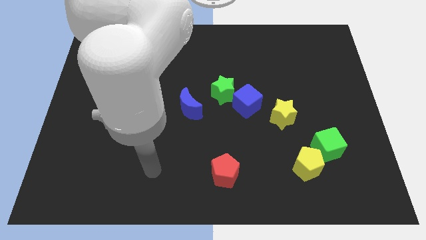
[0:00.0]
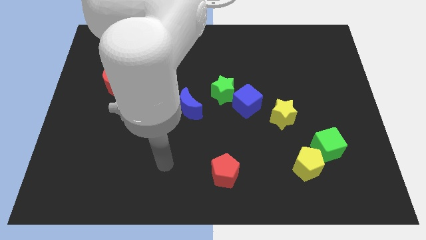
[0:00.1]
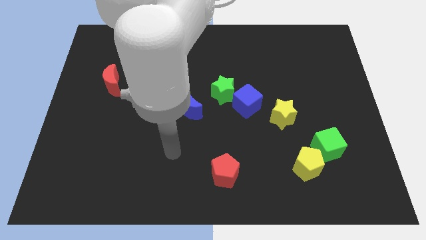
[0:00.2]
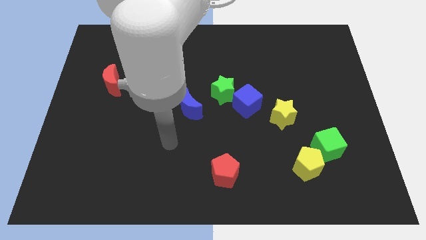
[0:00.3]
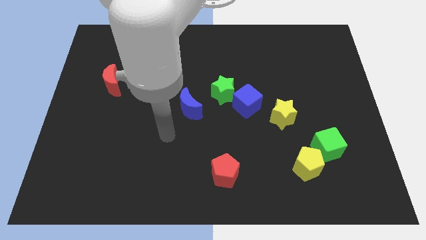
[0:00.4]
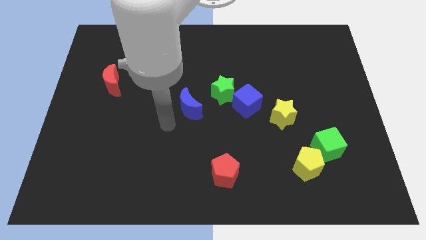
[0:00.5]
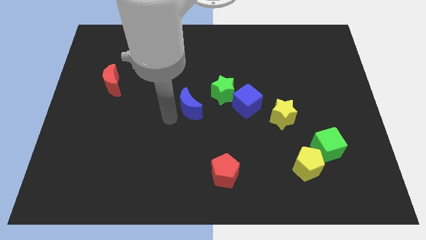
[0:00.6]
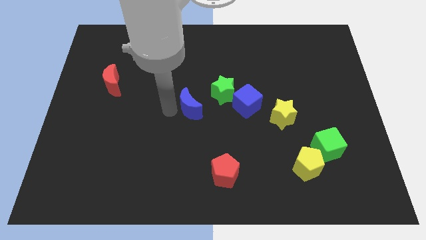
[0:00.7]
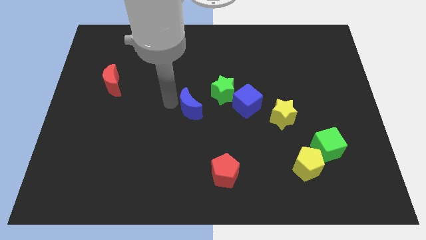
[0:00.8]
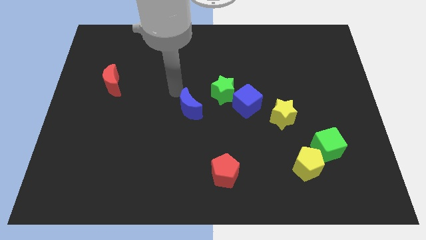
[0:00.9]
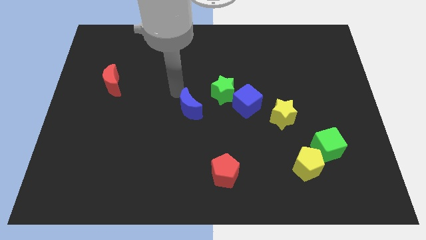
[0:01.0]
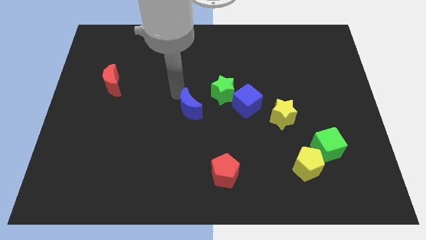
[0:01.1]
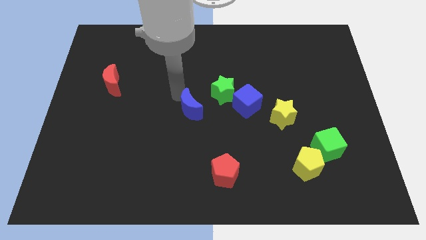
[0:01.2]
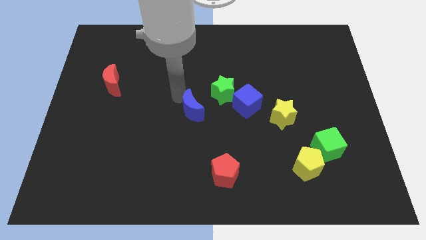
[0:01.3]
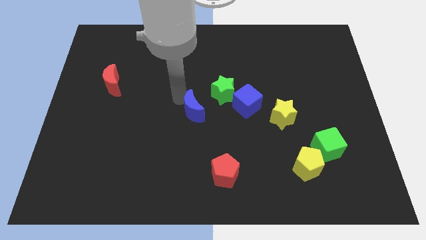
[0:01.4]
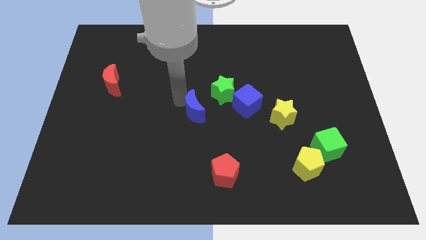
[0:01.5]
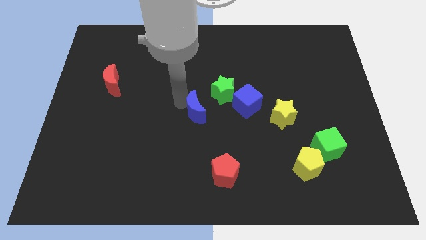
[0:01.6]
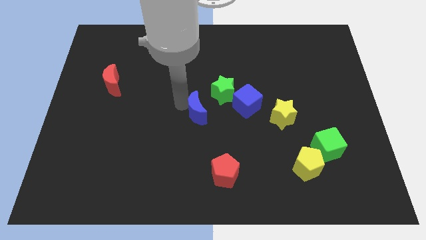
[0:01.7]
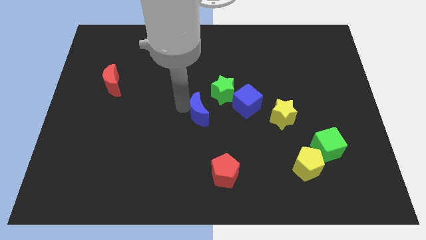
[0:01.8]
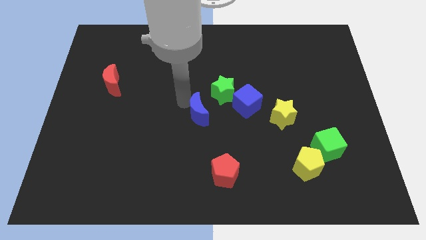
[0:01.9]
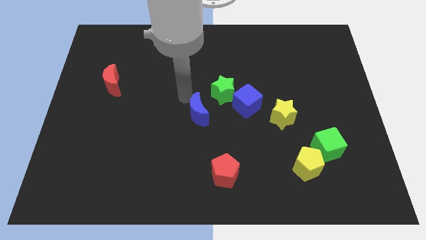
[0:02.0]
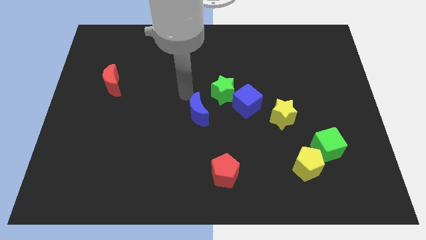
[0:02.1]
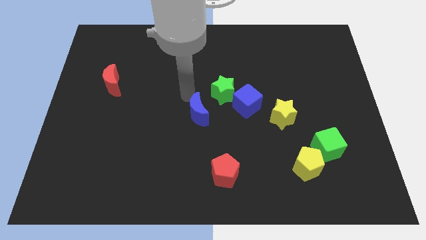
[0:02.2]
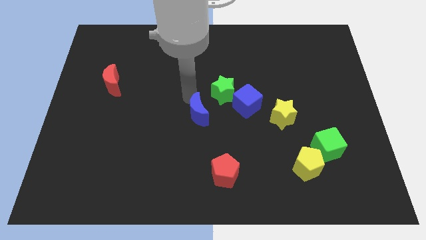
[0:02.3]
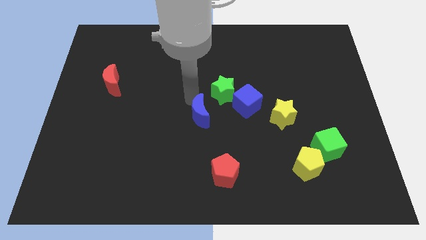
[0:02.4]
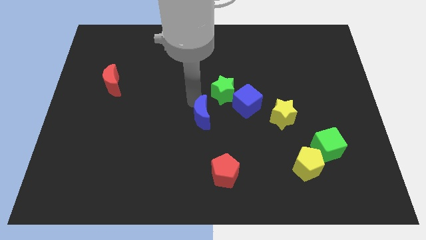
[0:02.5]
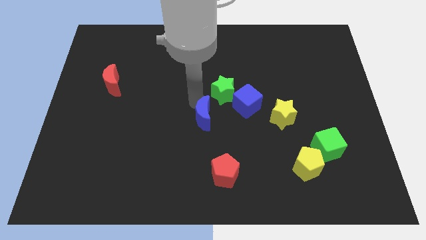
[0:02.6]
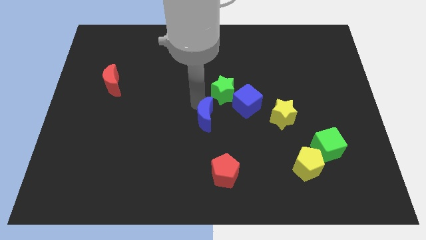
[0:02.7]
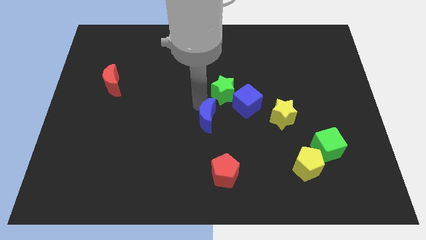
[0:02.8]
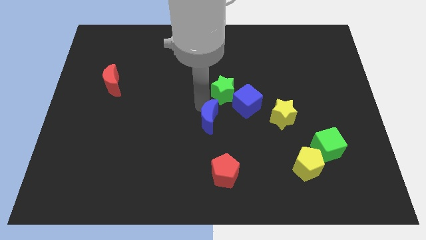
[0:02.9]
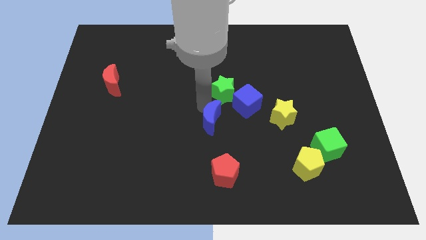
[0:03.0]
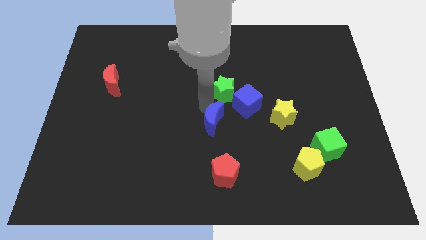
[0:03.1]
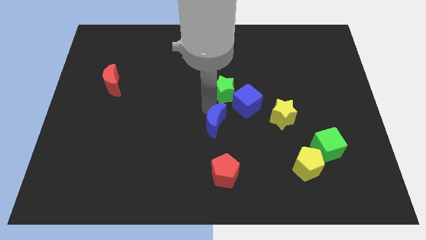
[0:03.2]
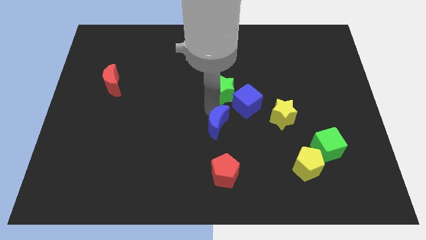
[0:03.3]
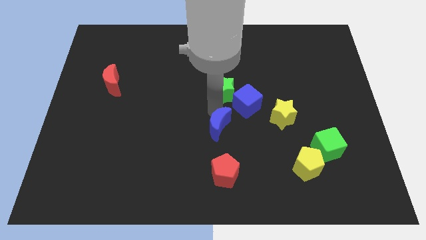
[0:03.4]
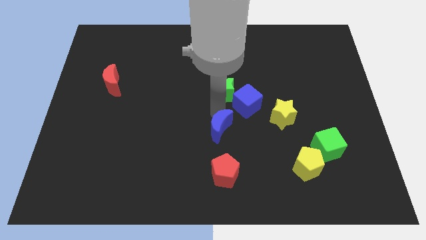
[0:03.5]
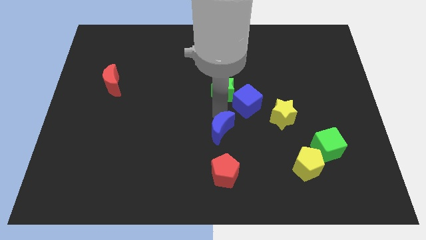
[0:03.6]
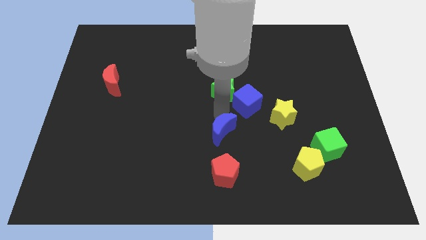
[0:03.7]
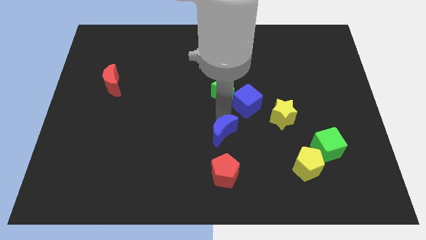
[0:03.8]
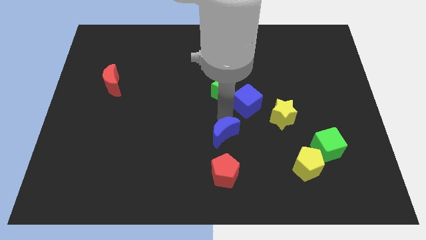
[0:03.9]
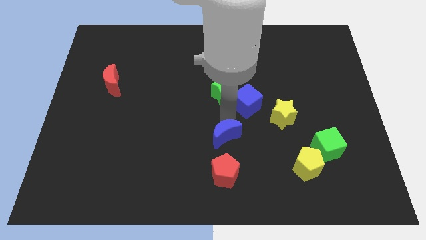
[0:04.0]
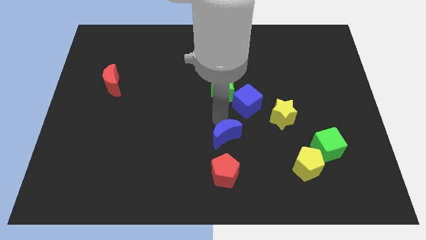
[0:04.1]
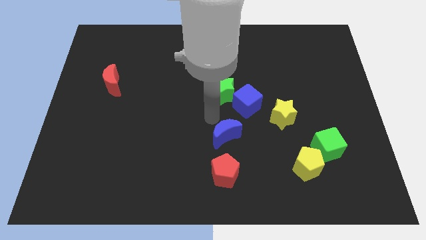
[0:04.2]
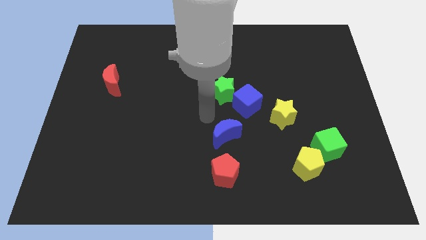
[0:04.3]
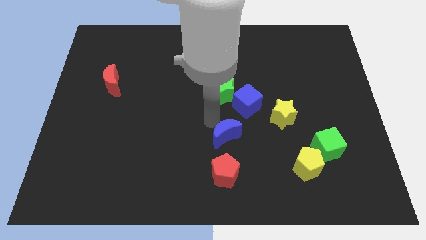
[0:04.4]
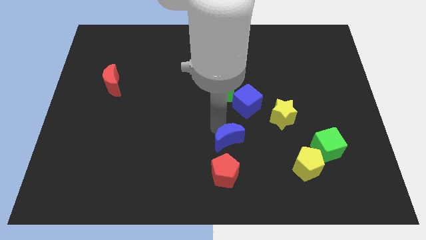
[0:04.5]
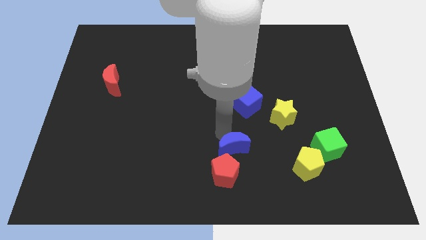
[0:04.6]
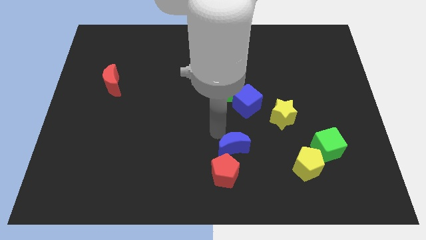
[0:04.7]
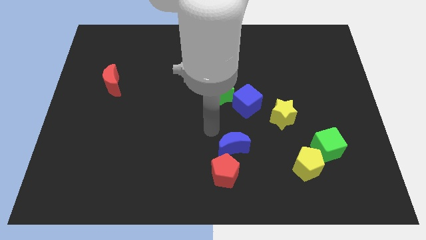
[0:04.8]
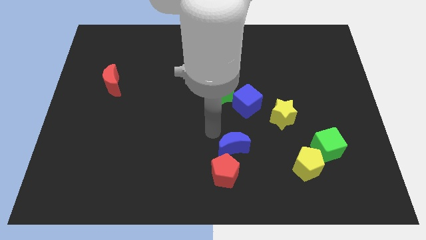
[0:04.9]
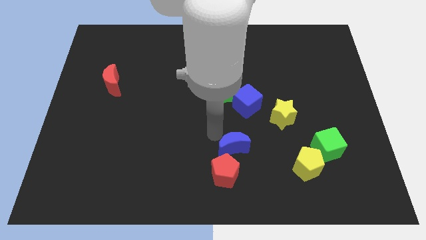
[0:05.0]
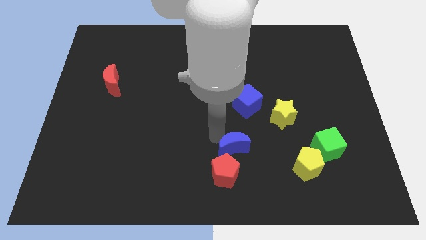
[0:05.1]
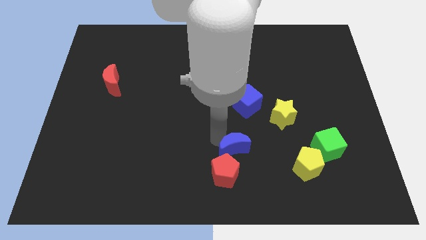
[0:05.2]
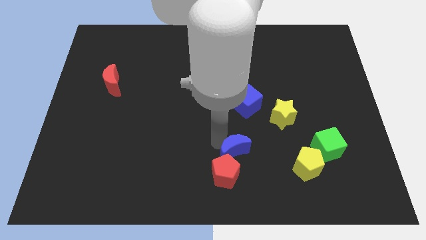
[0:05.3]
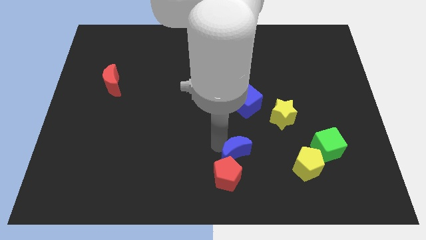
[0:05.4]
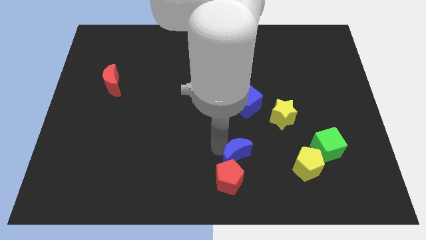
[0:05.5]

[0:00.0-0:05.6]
slide the blue moon just left of the yellow pentagon
